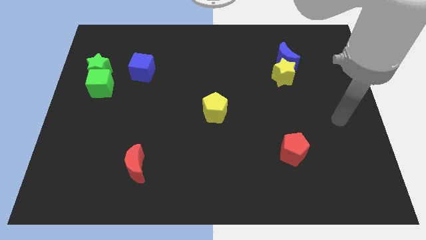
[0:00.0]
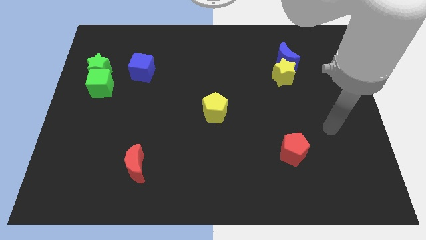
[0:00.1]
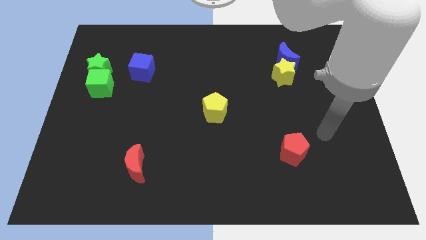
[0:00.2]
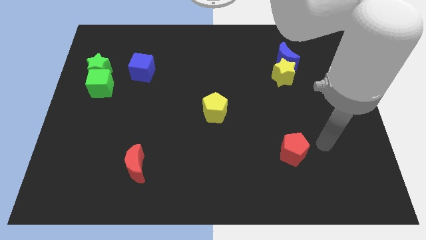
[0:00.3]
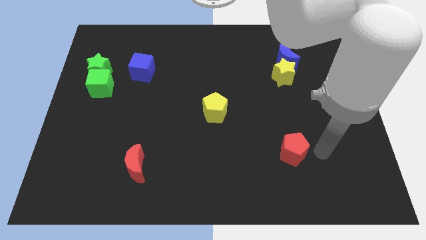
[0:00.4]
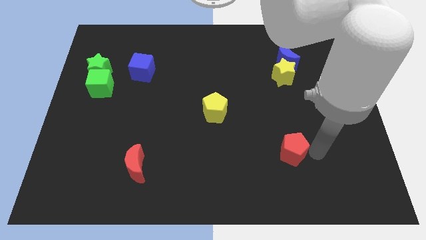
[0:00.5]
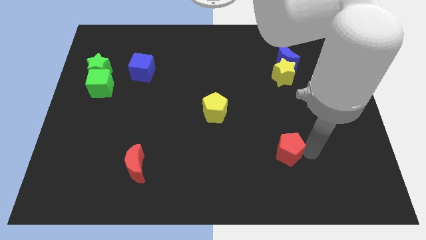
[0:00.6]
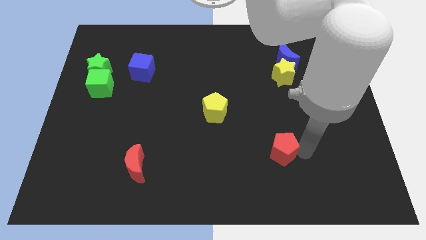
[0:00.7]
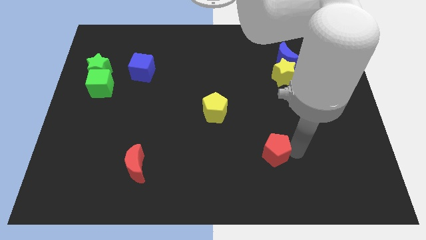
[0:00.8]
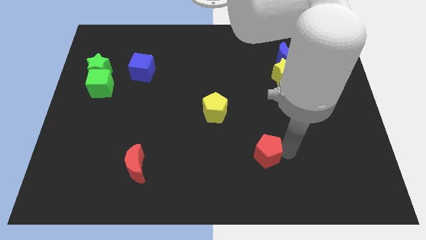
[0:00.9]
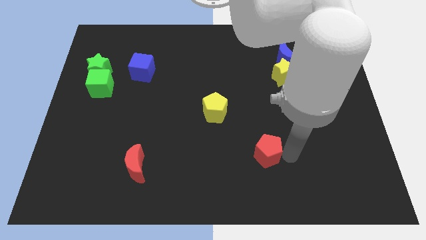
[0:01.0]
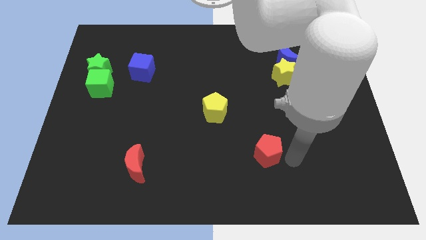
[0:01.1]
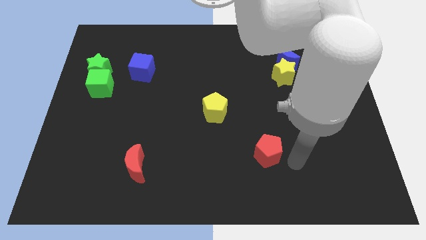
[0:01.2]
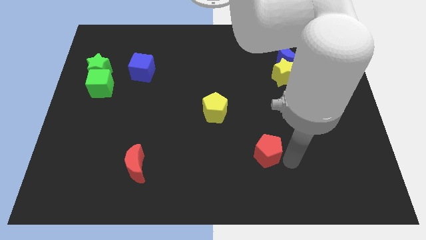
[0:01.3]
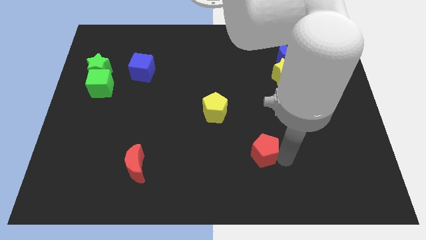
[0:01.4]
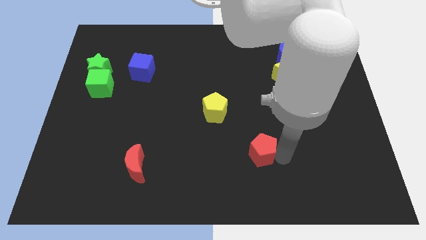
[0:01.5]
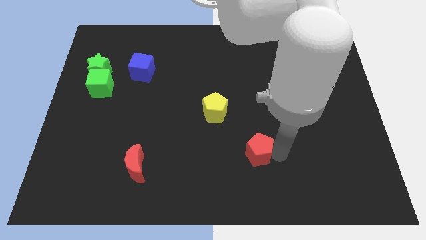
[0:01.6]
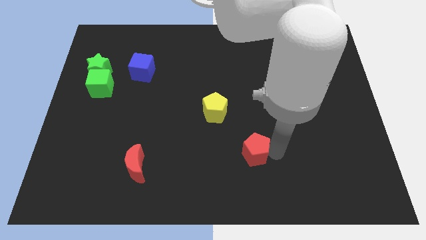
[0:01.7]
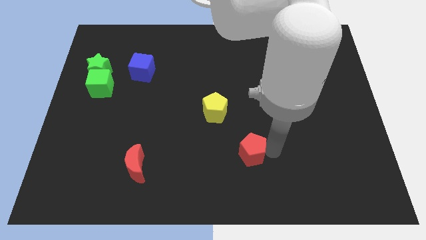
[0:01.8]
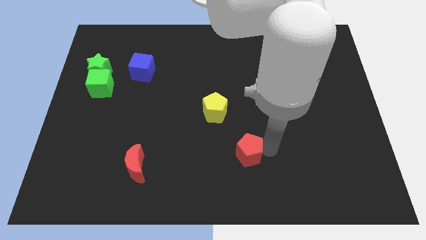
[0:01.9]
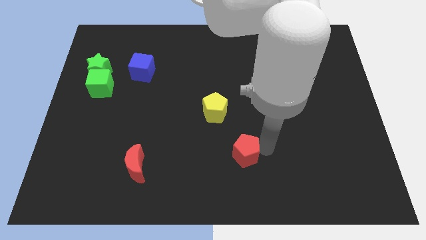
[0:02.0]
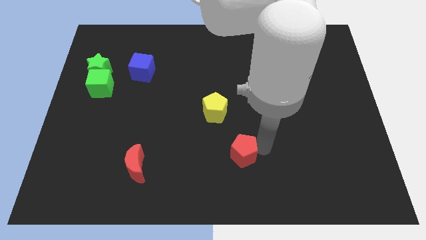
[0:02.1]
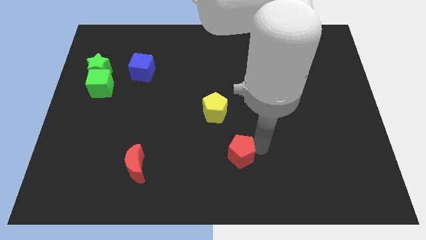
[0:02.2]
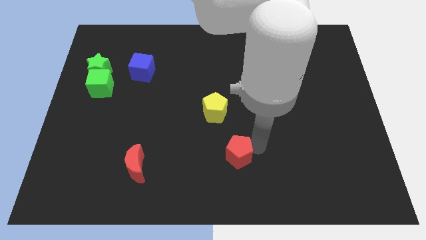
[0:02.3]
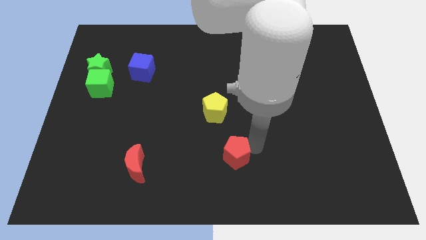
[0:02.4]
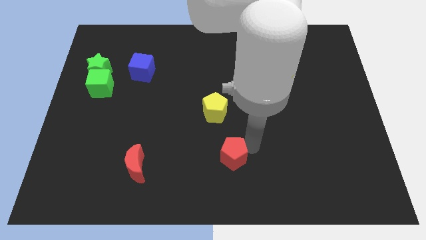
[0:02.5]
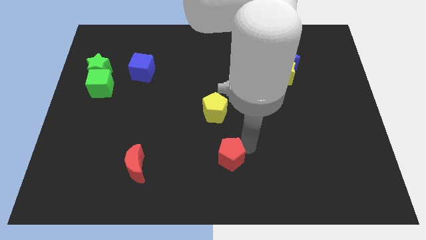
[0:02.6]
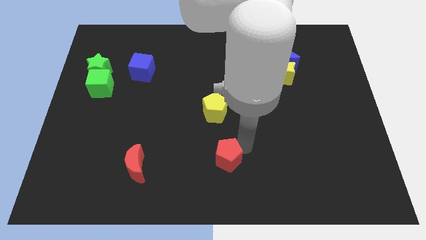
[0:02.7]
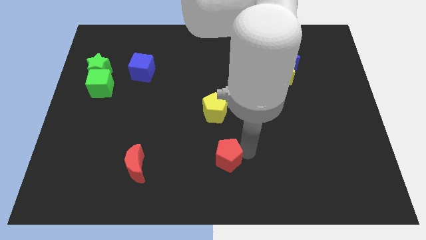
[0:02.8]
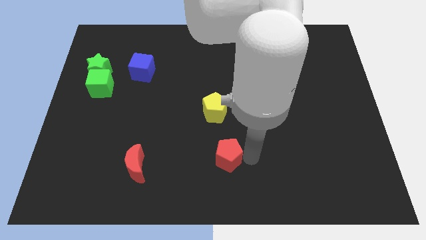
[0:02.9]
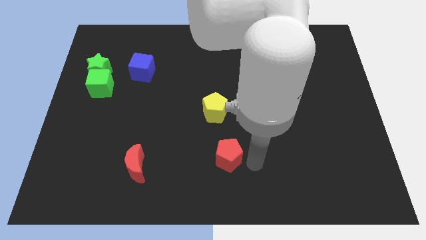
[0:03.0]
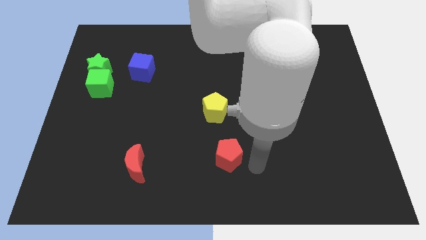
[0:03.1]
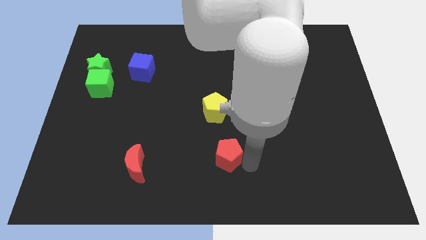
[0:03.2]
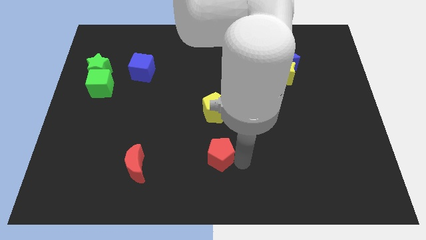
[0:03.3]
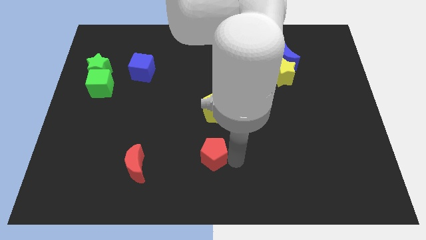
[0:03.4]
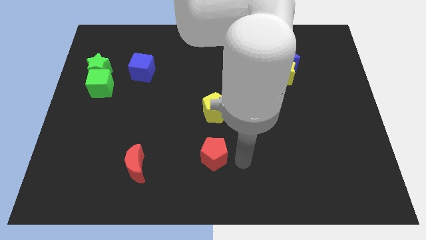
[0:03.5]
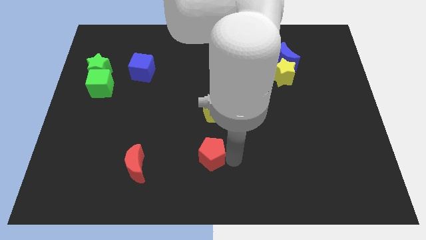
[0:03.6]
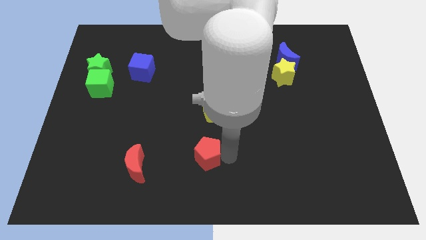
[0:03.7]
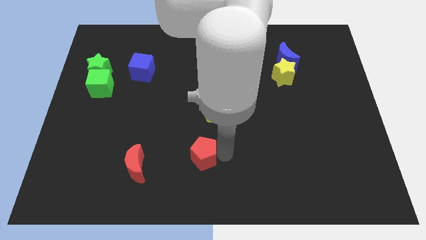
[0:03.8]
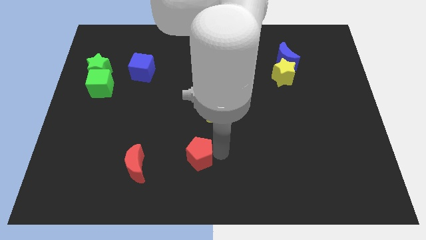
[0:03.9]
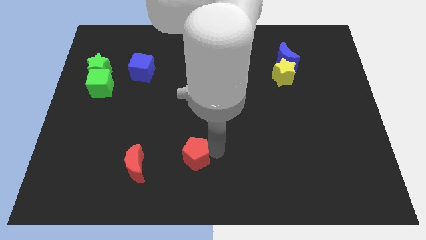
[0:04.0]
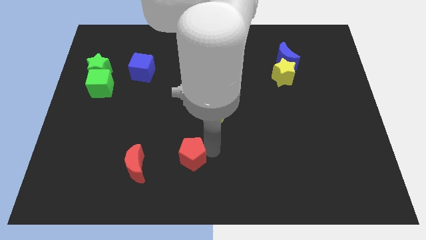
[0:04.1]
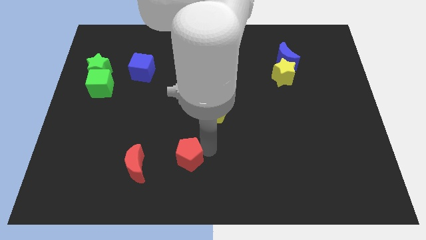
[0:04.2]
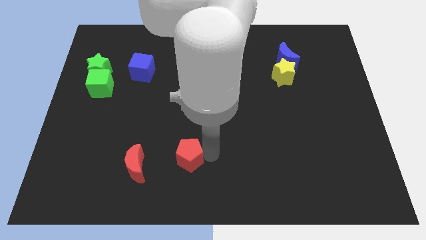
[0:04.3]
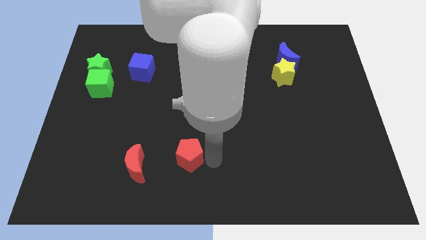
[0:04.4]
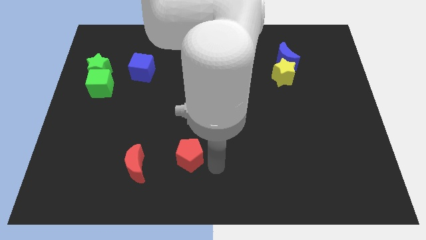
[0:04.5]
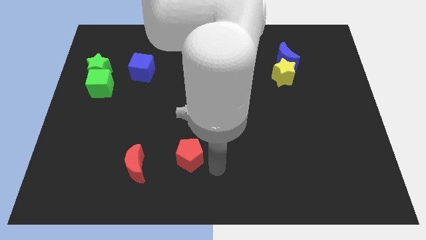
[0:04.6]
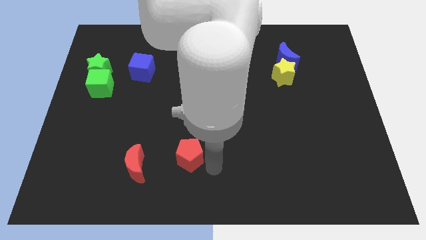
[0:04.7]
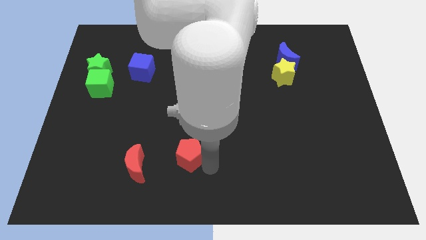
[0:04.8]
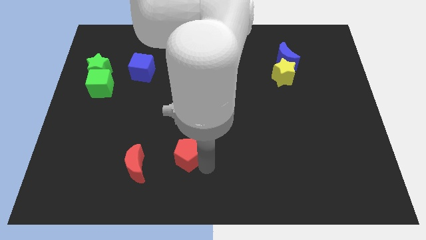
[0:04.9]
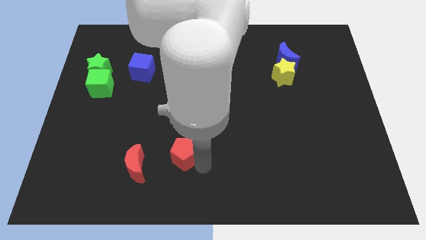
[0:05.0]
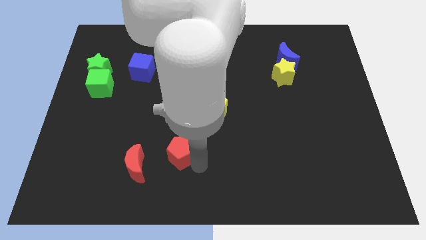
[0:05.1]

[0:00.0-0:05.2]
put the red pentagon to the top right side of the red moon

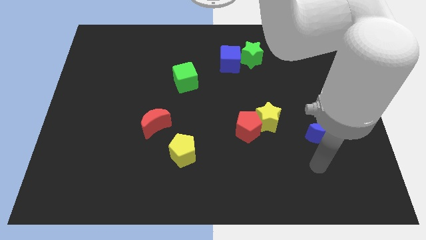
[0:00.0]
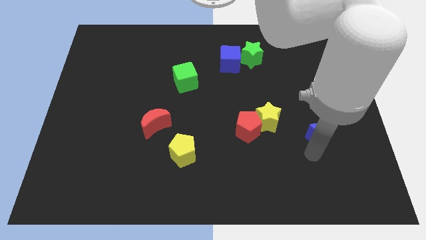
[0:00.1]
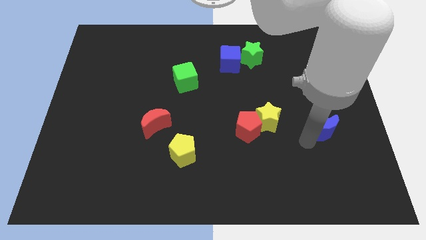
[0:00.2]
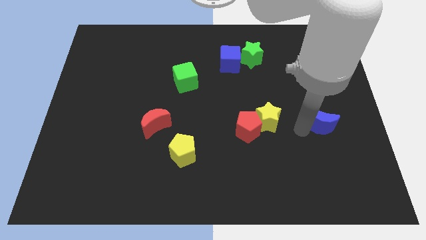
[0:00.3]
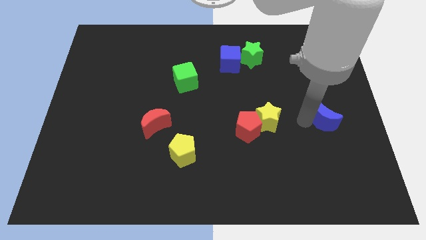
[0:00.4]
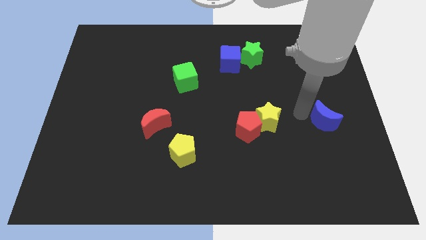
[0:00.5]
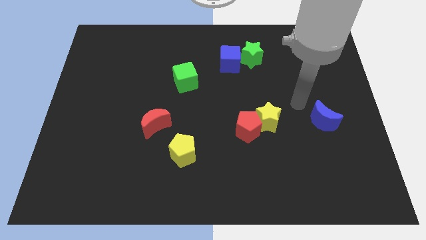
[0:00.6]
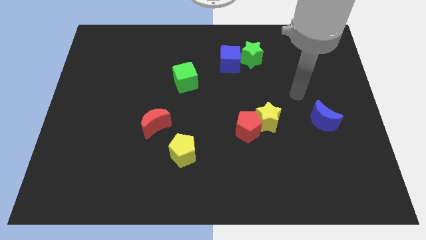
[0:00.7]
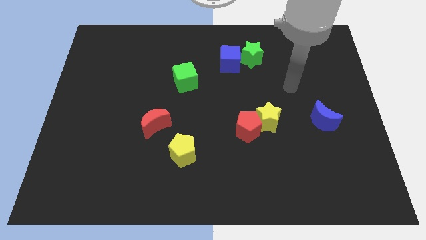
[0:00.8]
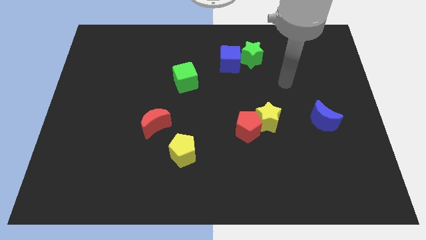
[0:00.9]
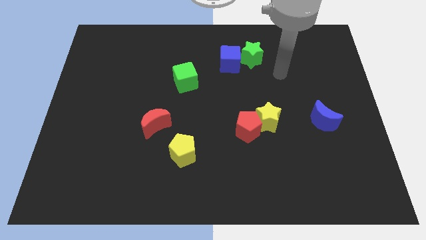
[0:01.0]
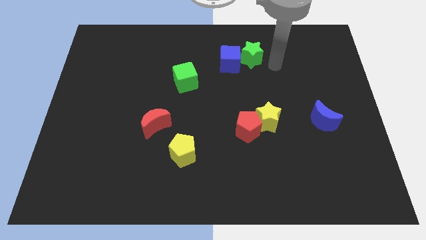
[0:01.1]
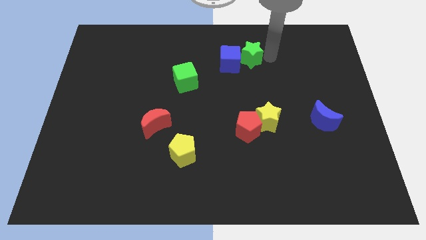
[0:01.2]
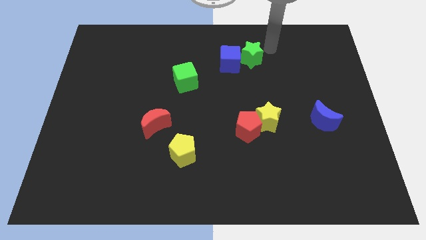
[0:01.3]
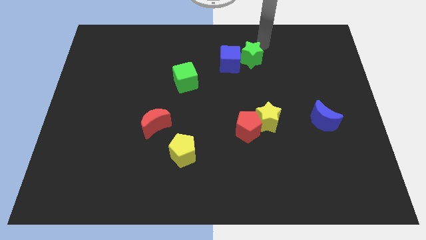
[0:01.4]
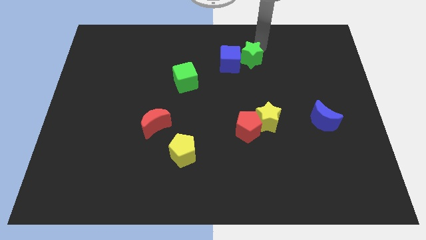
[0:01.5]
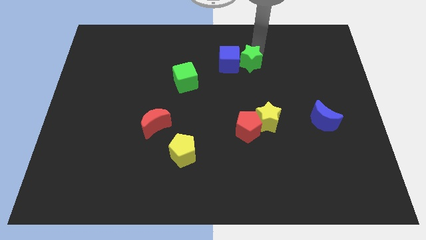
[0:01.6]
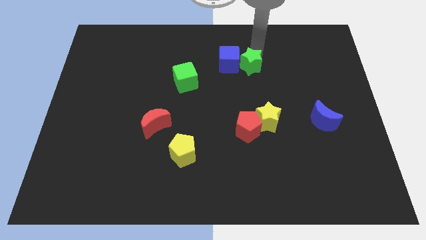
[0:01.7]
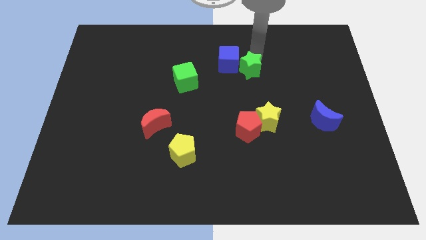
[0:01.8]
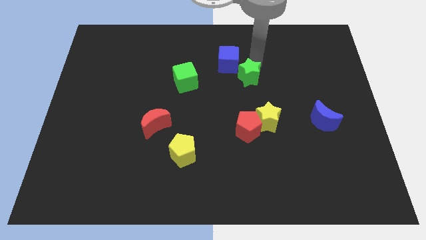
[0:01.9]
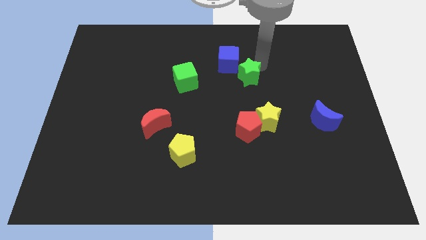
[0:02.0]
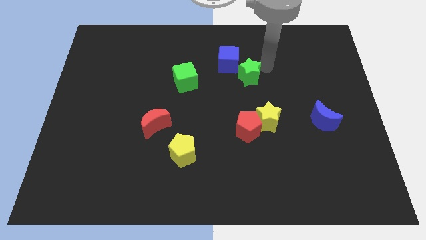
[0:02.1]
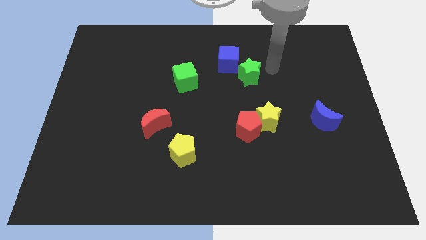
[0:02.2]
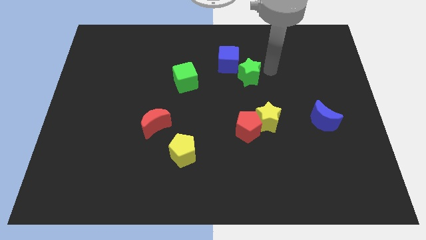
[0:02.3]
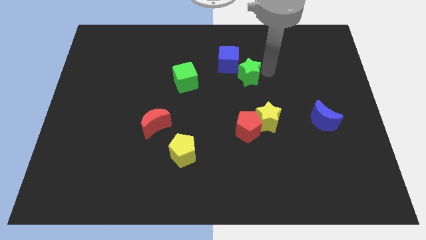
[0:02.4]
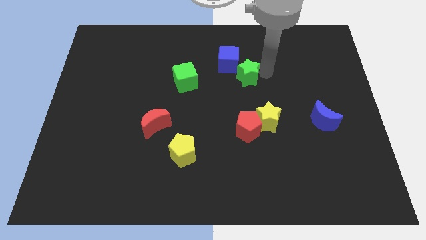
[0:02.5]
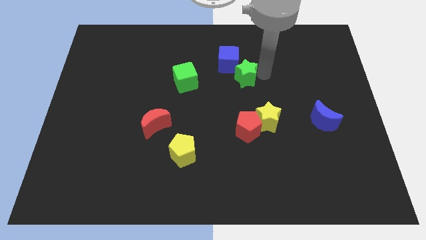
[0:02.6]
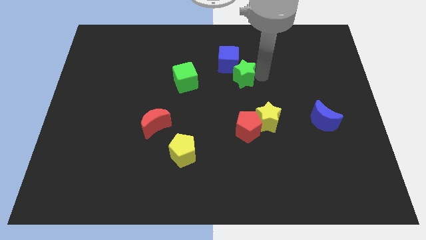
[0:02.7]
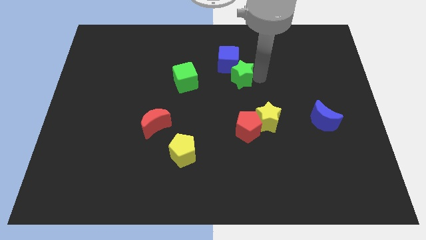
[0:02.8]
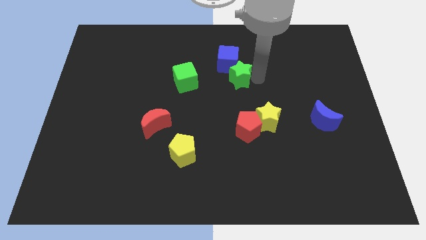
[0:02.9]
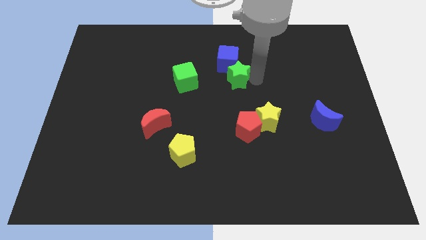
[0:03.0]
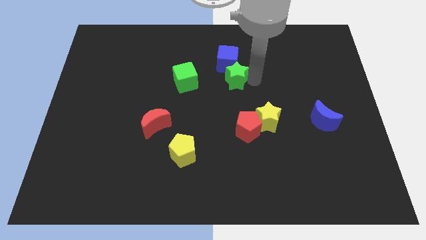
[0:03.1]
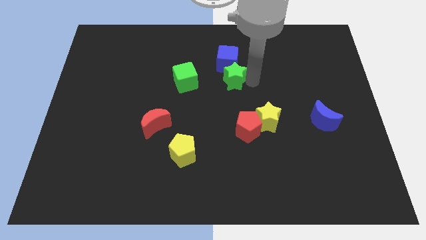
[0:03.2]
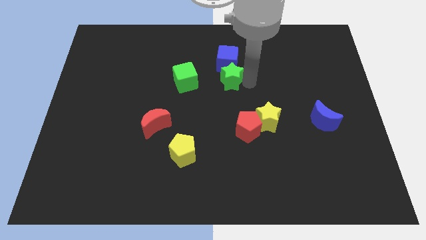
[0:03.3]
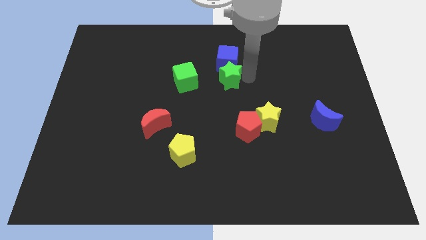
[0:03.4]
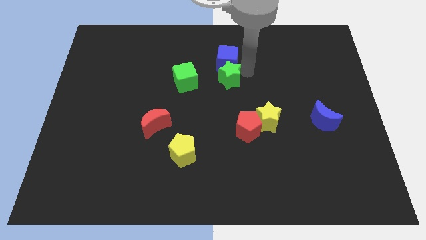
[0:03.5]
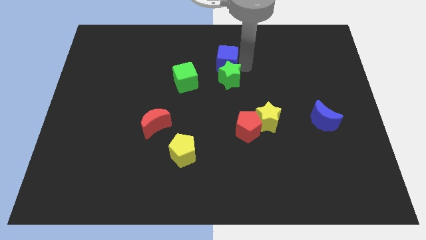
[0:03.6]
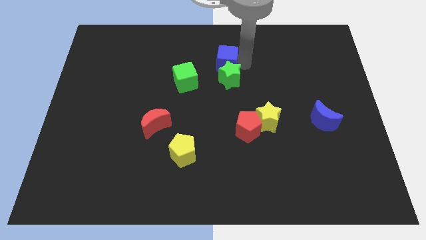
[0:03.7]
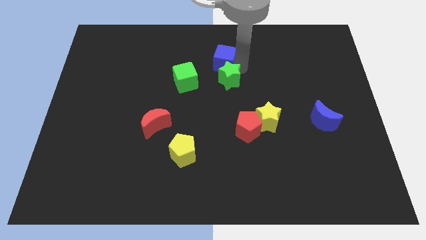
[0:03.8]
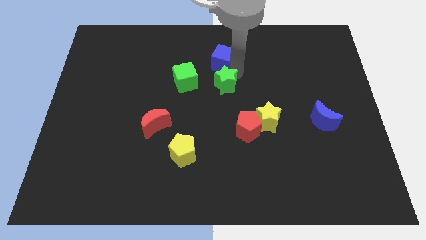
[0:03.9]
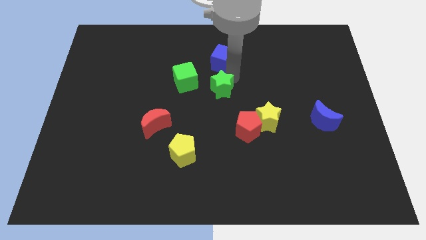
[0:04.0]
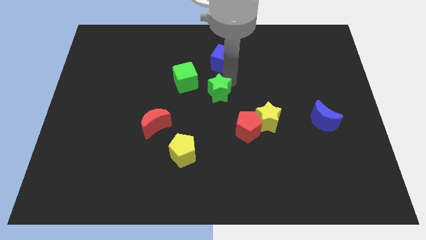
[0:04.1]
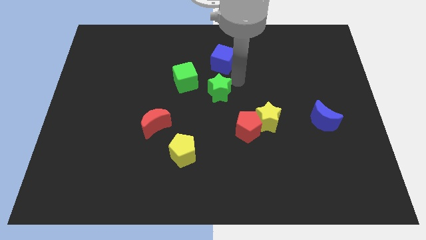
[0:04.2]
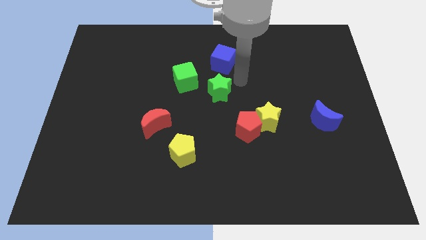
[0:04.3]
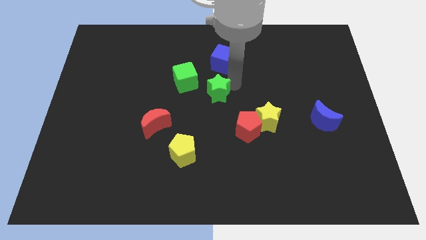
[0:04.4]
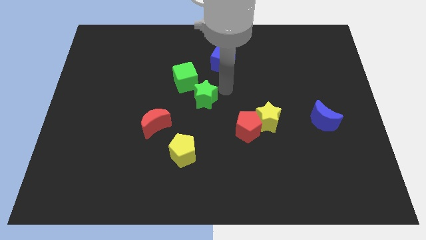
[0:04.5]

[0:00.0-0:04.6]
put the green star to the bottom of the green cube
